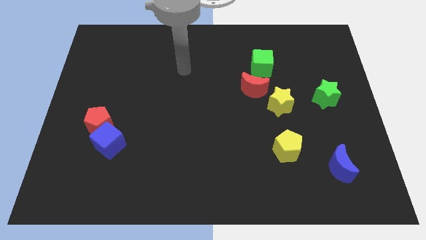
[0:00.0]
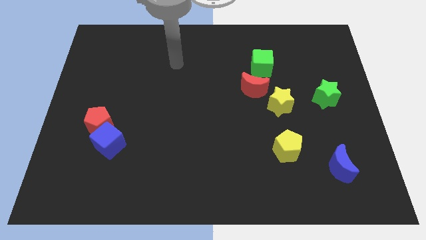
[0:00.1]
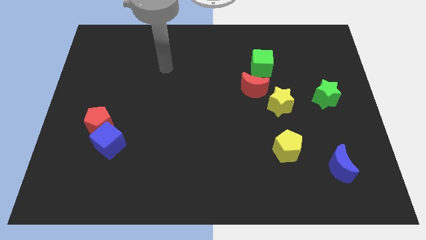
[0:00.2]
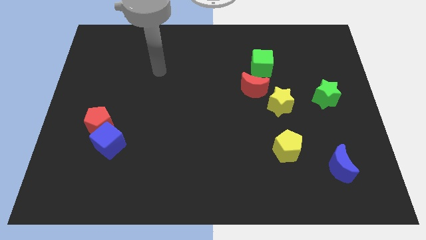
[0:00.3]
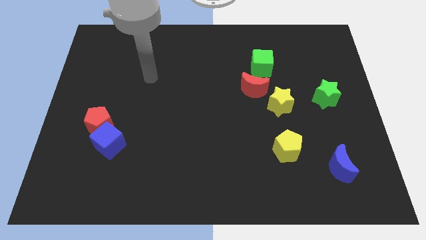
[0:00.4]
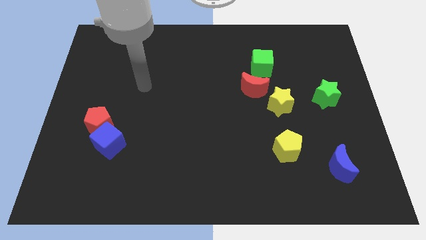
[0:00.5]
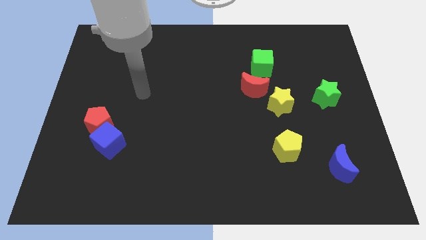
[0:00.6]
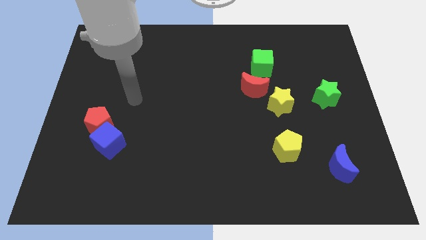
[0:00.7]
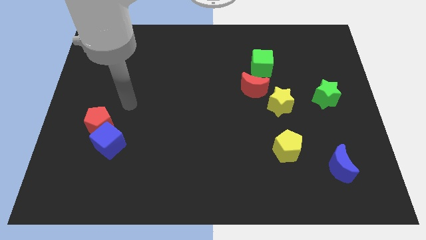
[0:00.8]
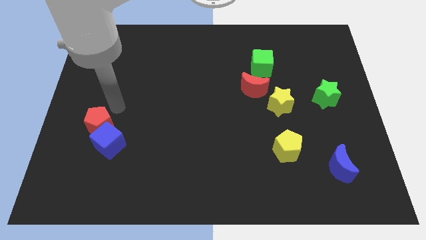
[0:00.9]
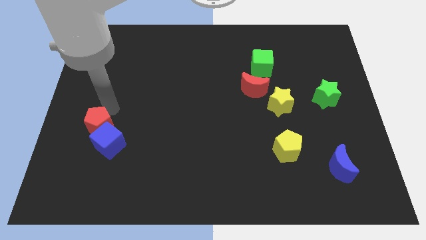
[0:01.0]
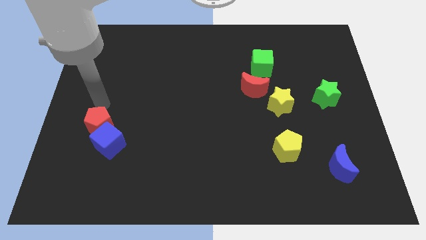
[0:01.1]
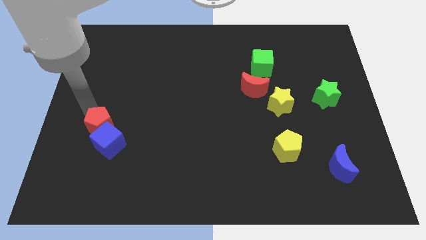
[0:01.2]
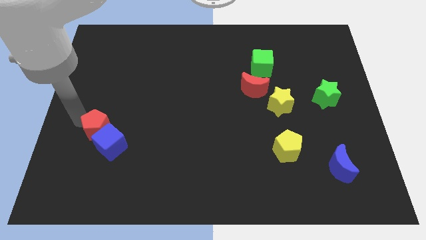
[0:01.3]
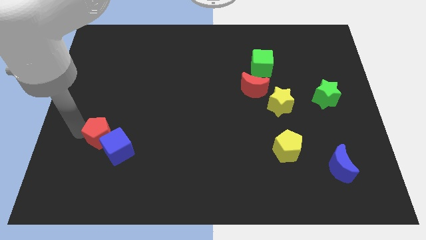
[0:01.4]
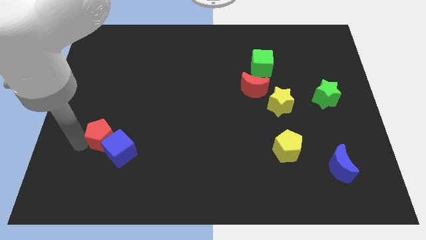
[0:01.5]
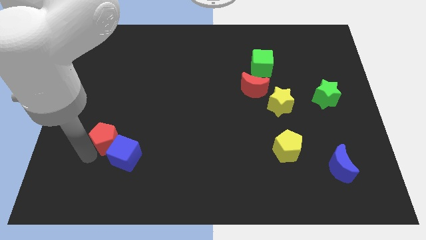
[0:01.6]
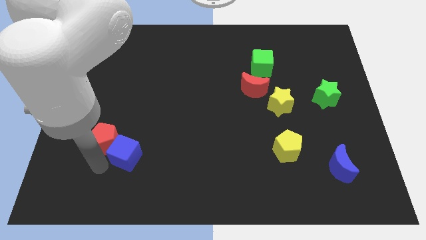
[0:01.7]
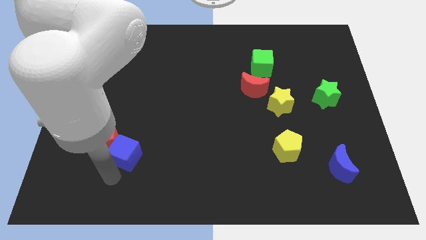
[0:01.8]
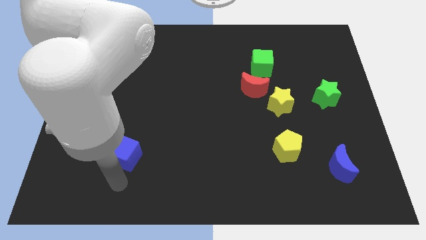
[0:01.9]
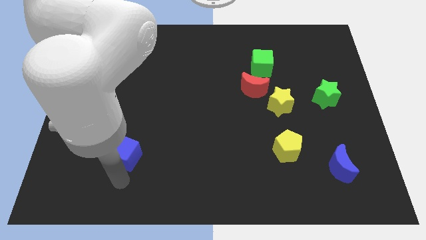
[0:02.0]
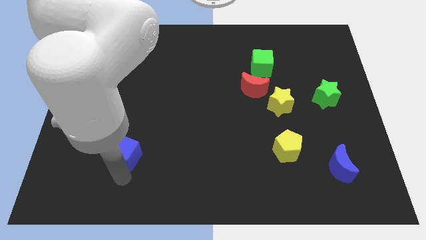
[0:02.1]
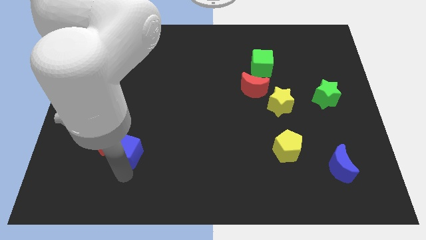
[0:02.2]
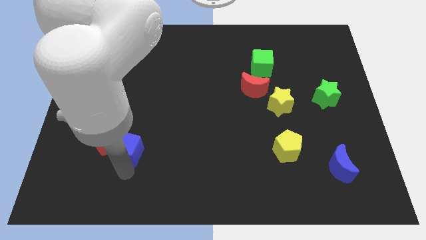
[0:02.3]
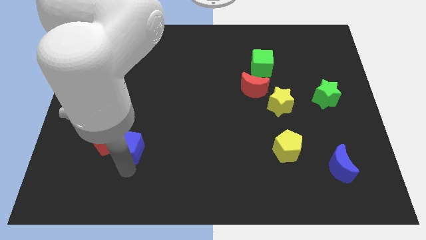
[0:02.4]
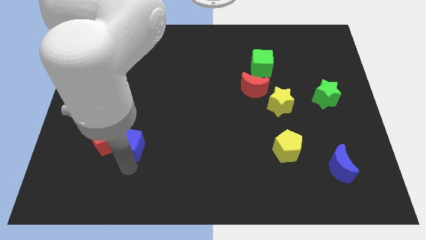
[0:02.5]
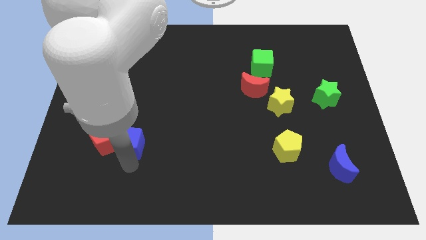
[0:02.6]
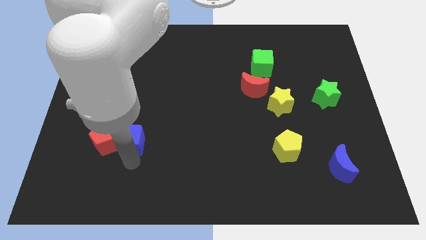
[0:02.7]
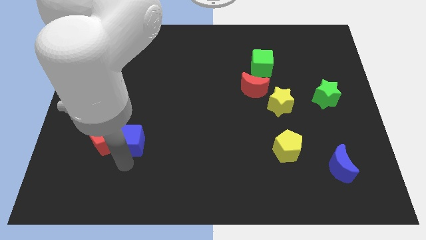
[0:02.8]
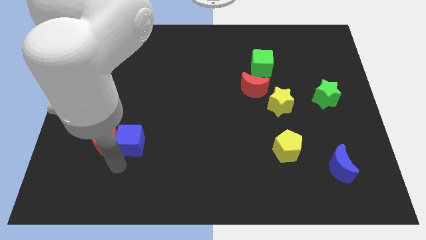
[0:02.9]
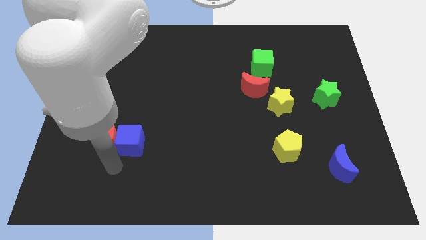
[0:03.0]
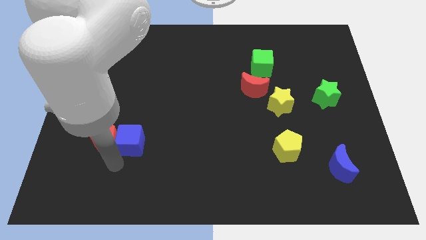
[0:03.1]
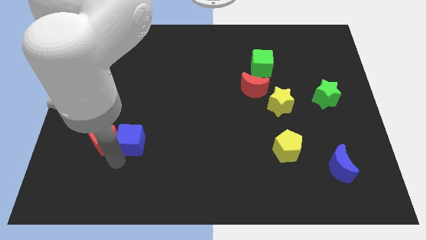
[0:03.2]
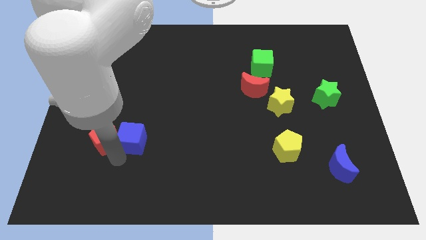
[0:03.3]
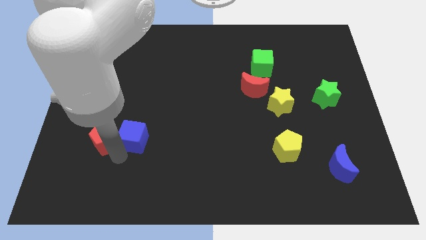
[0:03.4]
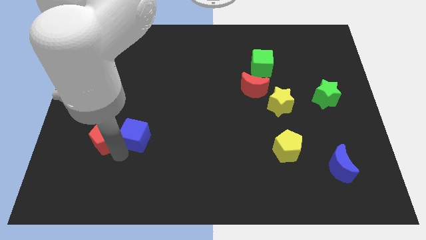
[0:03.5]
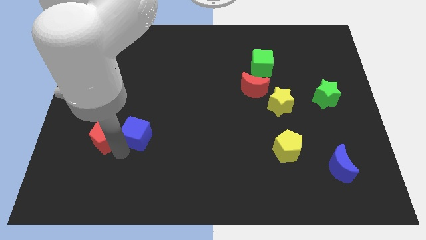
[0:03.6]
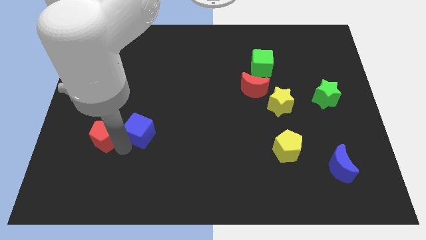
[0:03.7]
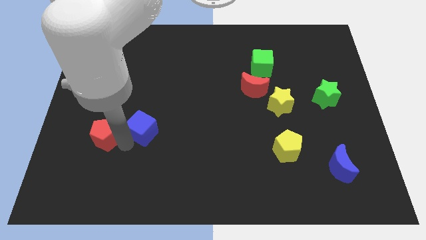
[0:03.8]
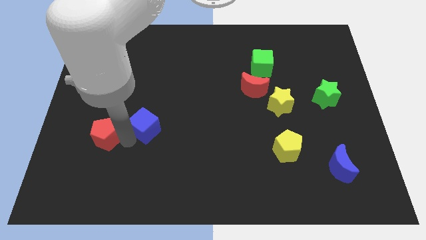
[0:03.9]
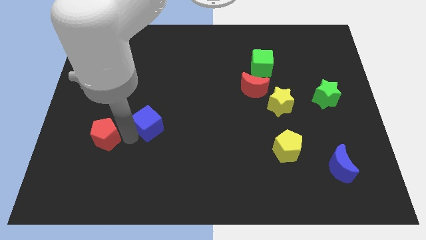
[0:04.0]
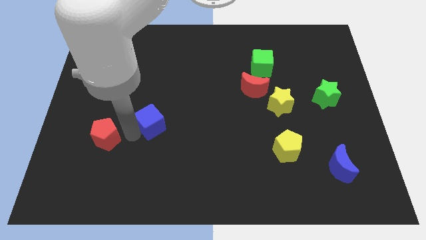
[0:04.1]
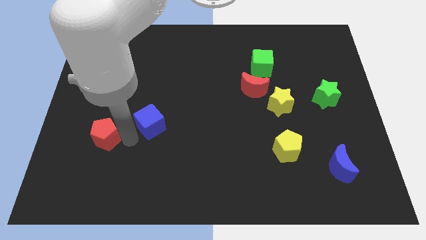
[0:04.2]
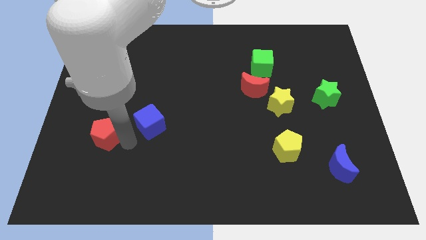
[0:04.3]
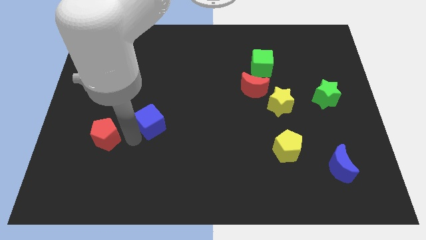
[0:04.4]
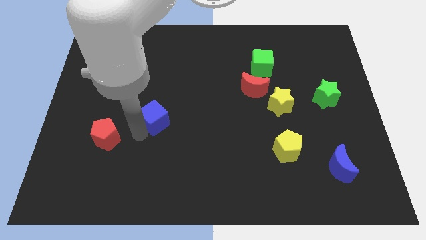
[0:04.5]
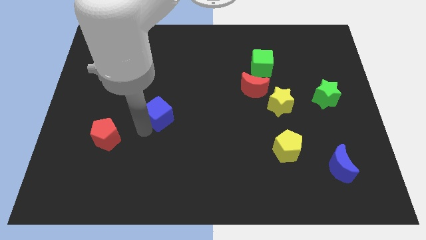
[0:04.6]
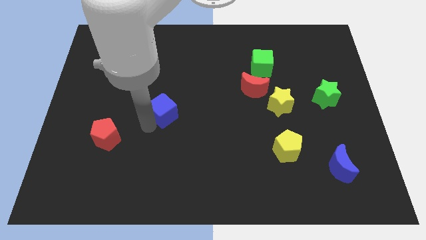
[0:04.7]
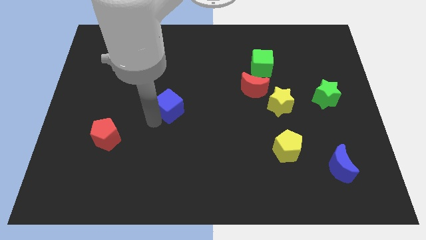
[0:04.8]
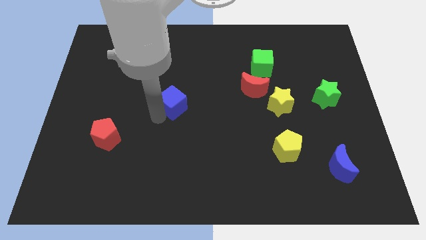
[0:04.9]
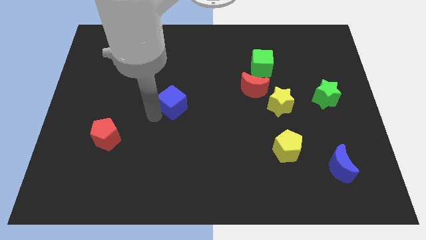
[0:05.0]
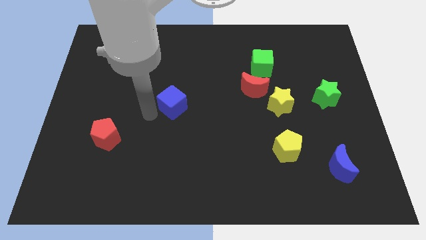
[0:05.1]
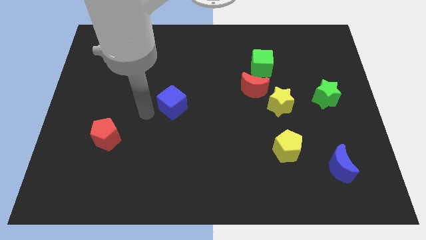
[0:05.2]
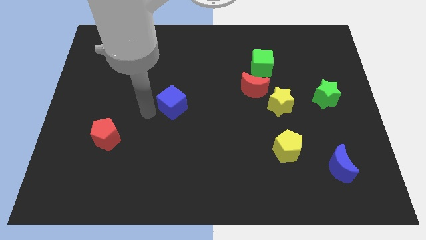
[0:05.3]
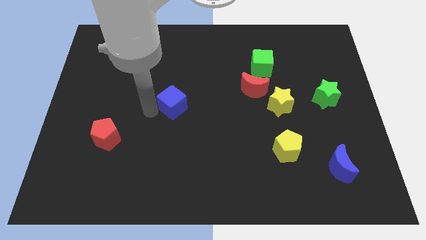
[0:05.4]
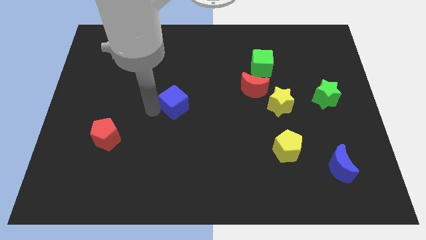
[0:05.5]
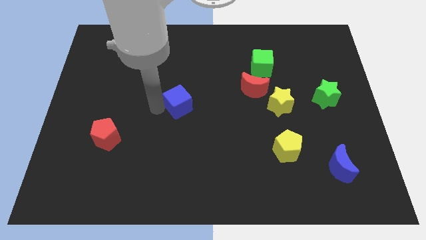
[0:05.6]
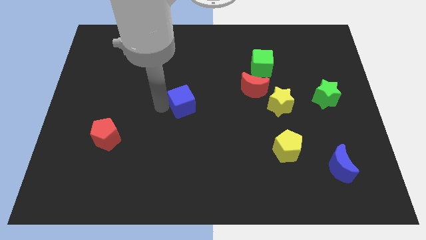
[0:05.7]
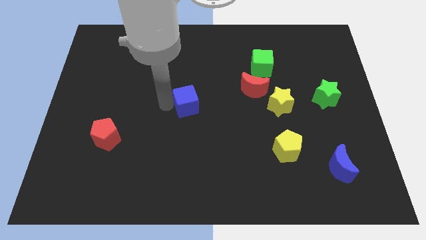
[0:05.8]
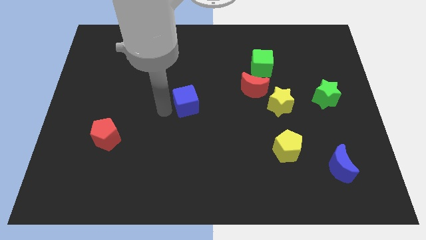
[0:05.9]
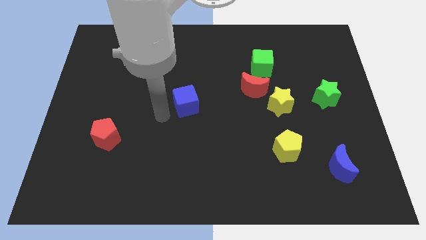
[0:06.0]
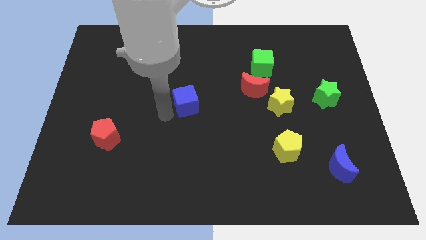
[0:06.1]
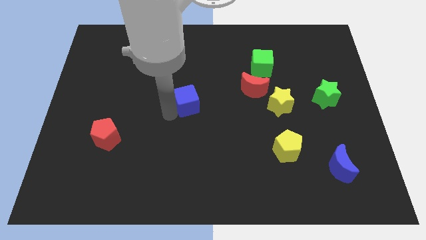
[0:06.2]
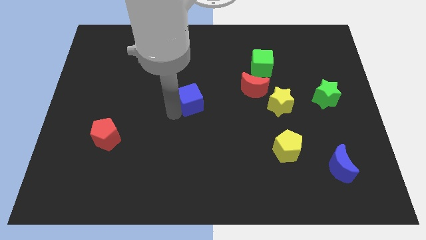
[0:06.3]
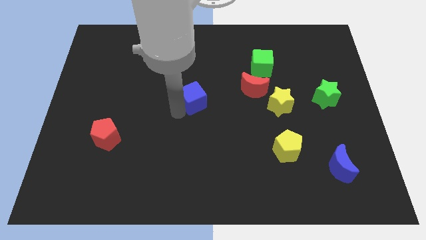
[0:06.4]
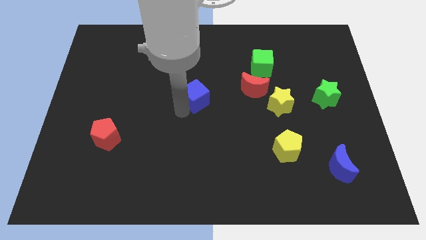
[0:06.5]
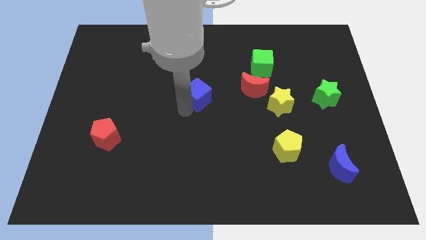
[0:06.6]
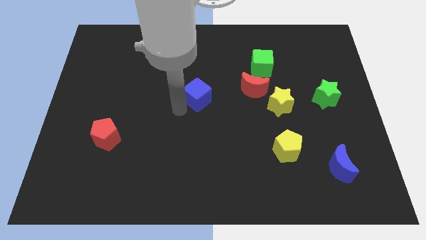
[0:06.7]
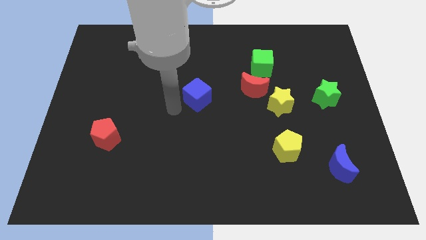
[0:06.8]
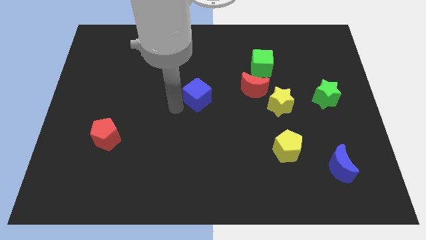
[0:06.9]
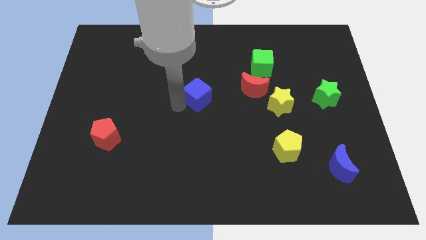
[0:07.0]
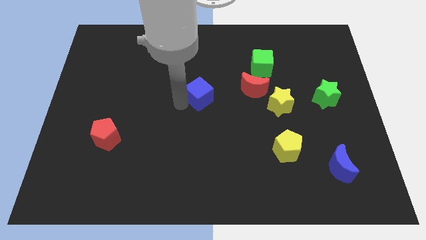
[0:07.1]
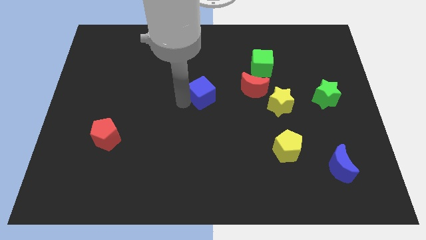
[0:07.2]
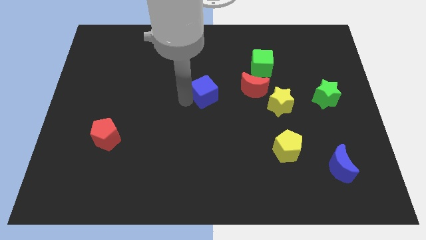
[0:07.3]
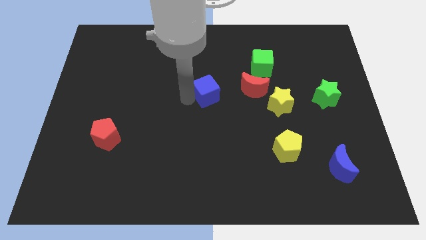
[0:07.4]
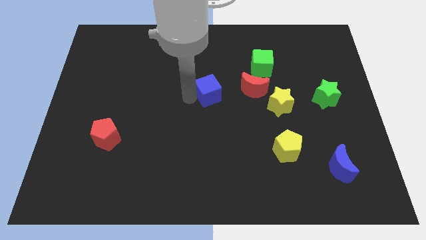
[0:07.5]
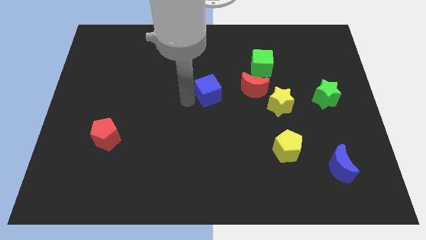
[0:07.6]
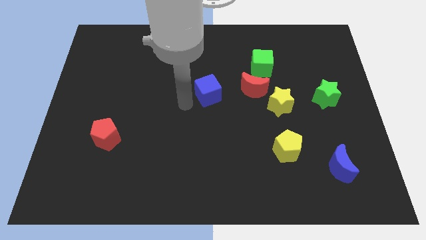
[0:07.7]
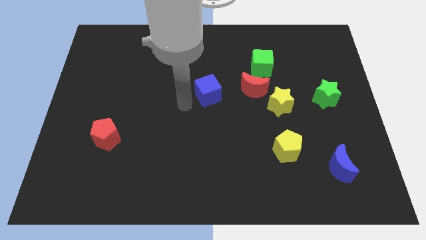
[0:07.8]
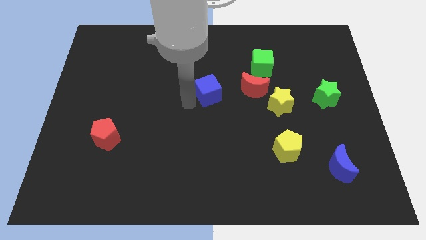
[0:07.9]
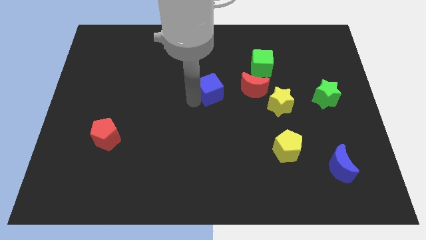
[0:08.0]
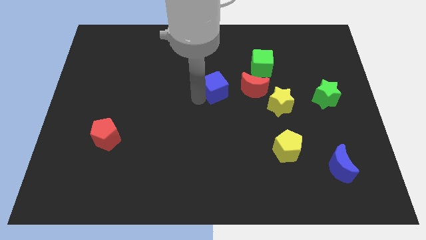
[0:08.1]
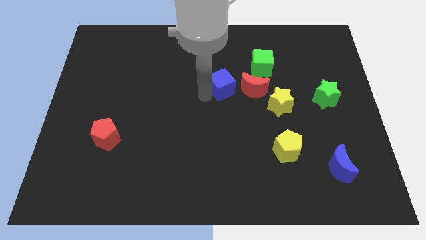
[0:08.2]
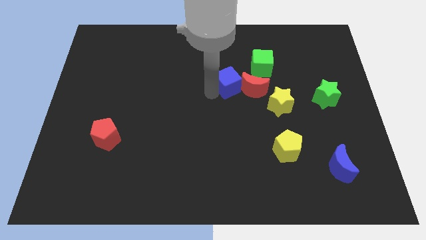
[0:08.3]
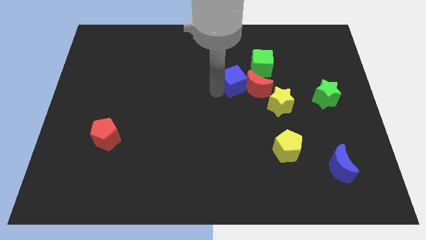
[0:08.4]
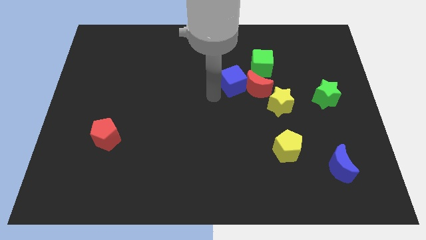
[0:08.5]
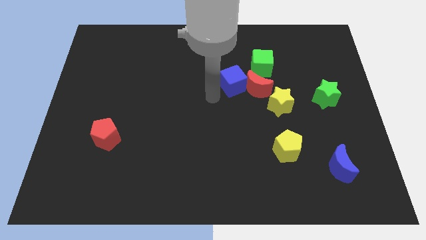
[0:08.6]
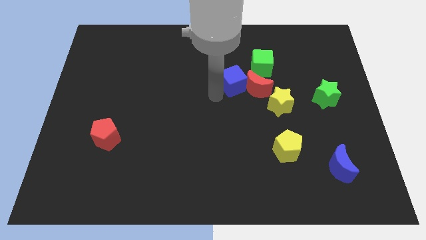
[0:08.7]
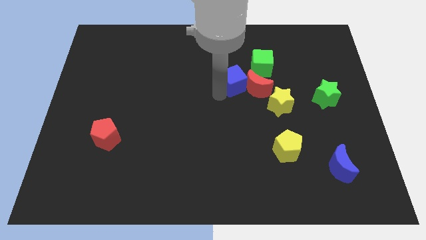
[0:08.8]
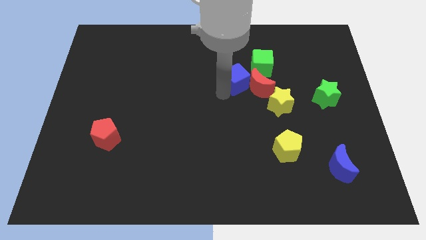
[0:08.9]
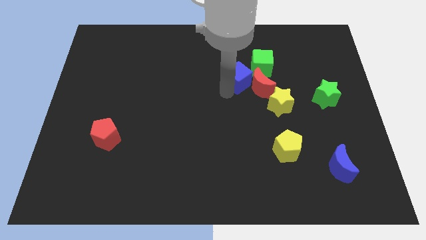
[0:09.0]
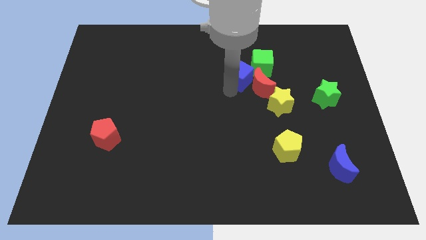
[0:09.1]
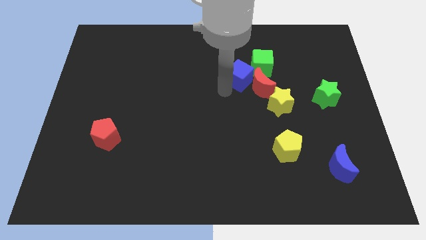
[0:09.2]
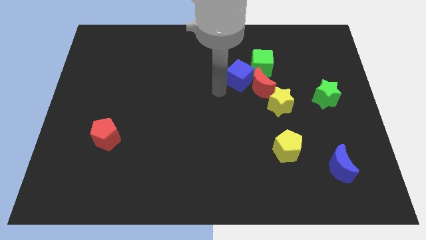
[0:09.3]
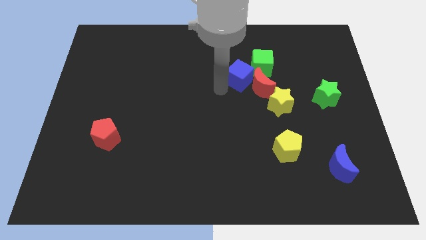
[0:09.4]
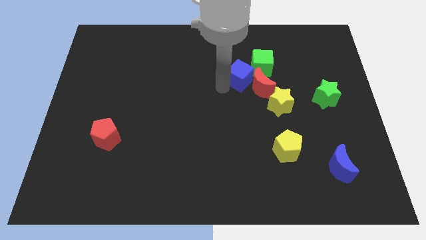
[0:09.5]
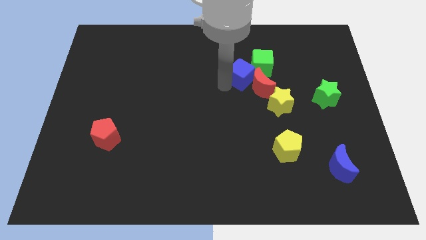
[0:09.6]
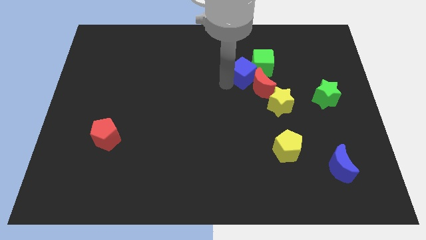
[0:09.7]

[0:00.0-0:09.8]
move the blue cube towards the green cube
